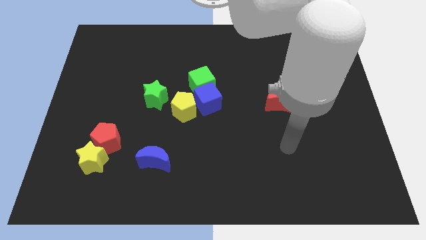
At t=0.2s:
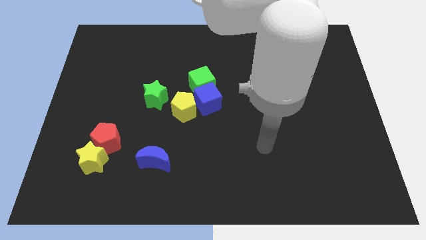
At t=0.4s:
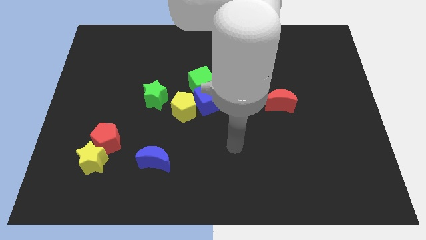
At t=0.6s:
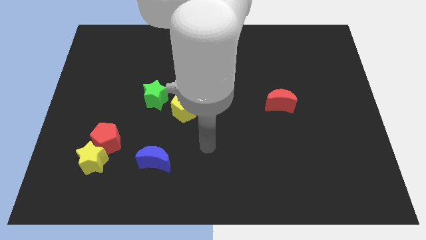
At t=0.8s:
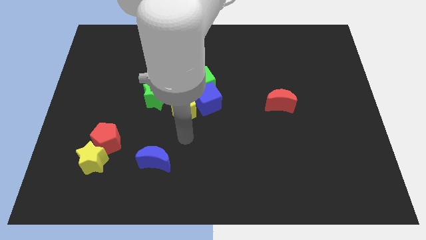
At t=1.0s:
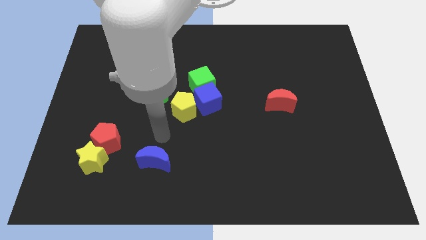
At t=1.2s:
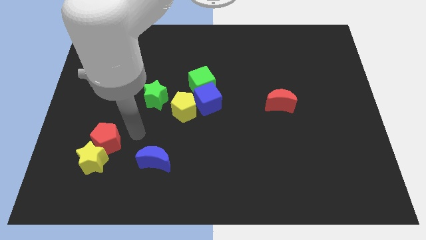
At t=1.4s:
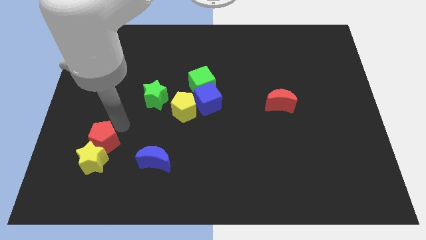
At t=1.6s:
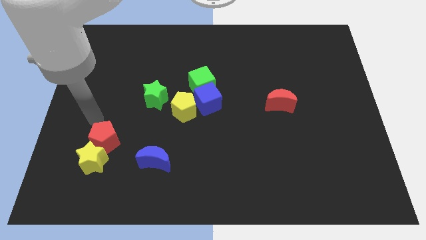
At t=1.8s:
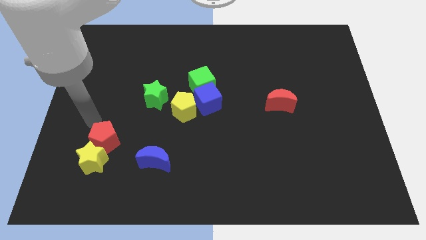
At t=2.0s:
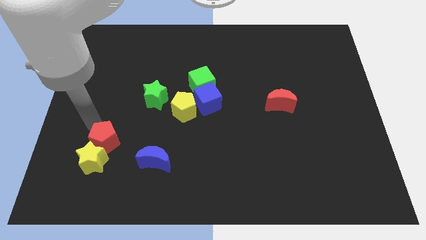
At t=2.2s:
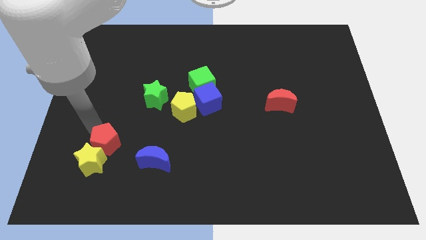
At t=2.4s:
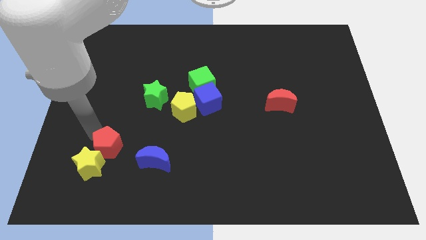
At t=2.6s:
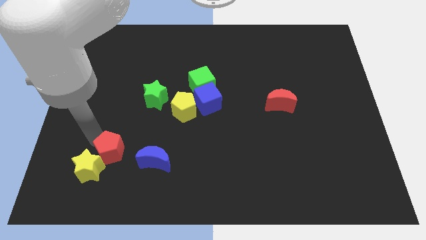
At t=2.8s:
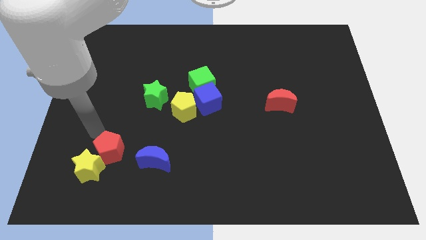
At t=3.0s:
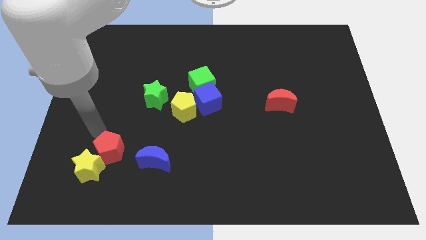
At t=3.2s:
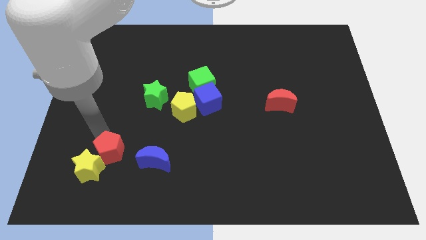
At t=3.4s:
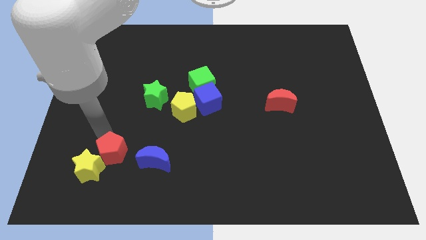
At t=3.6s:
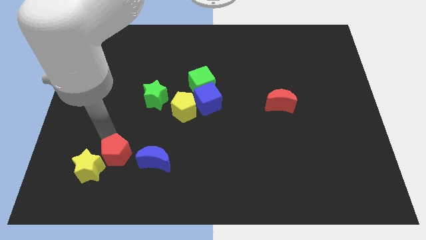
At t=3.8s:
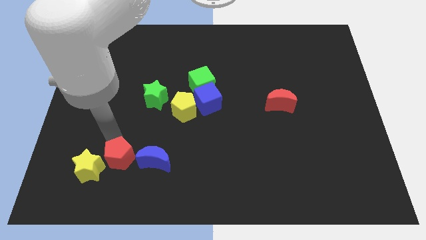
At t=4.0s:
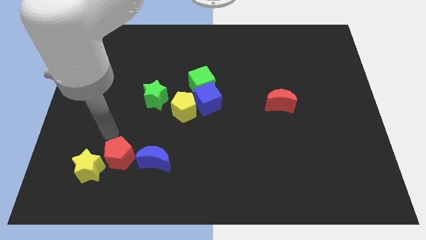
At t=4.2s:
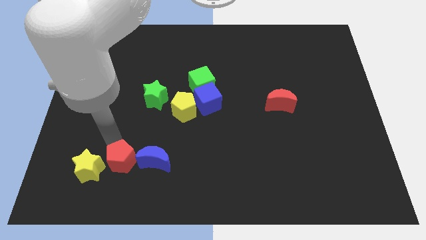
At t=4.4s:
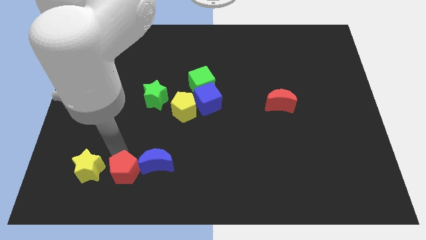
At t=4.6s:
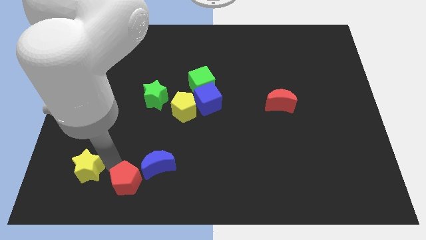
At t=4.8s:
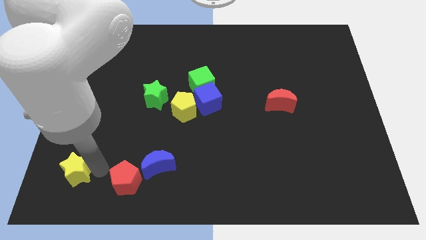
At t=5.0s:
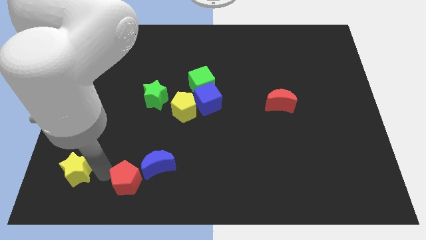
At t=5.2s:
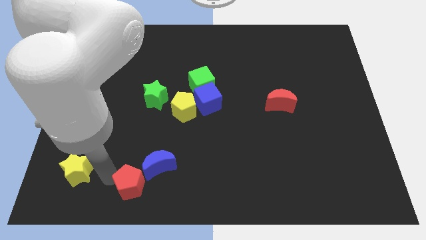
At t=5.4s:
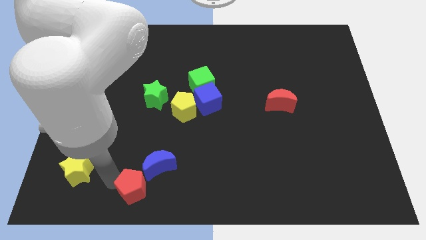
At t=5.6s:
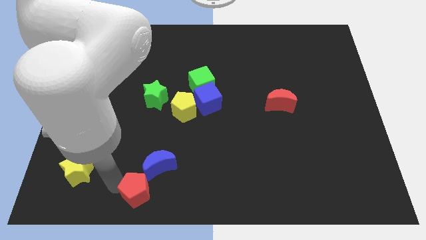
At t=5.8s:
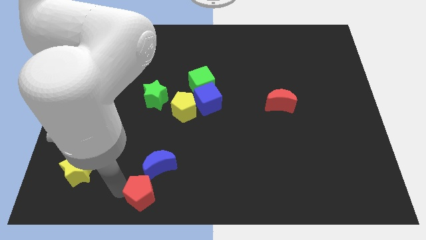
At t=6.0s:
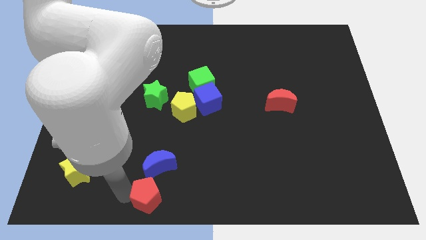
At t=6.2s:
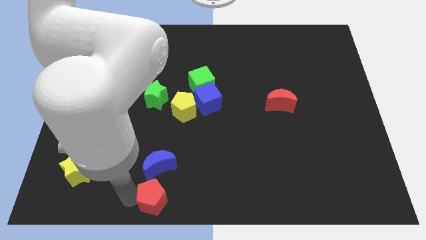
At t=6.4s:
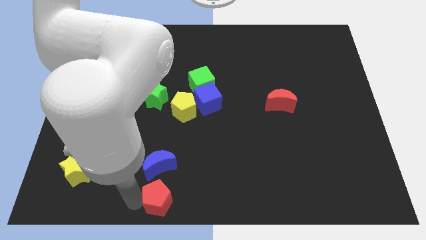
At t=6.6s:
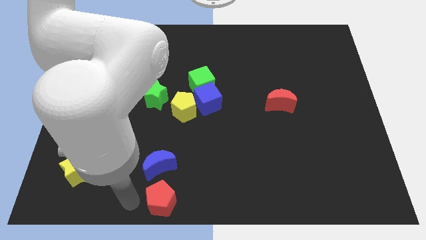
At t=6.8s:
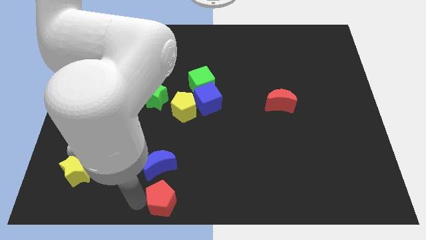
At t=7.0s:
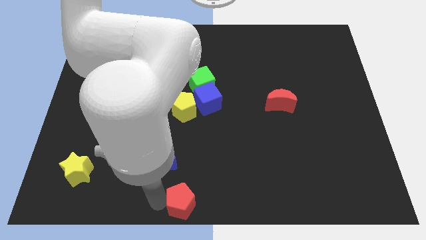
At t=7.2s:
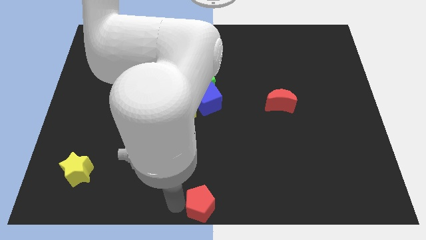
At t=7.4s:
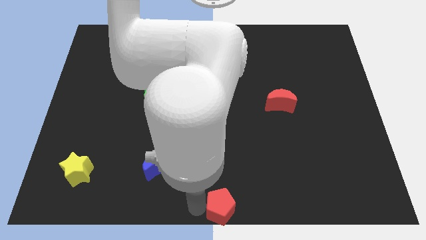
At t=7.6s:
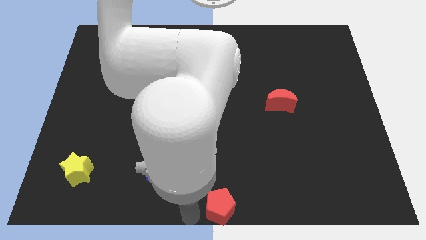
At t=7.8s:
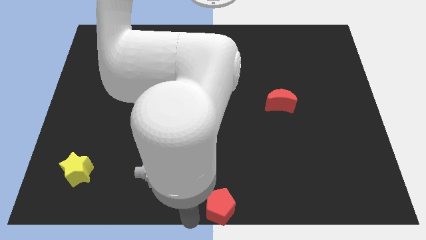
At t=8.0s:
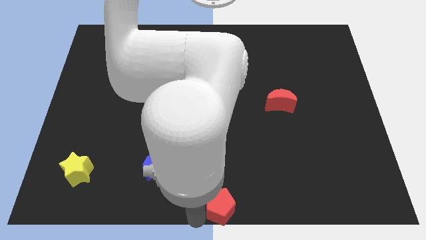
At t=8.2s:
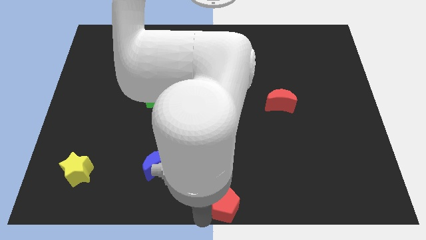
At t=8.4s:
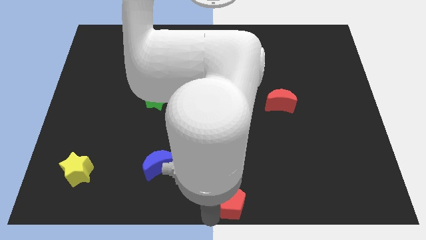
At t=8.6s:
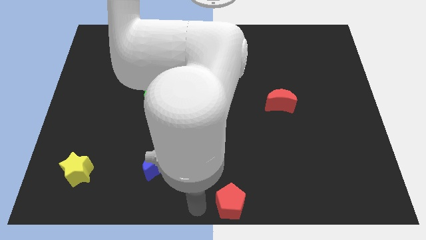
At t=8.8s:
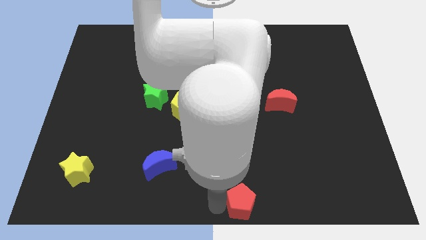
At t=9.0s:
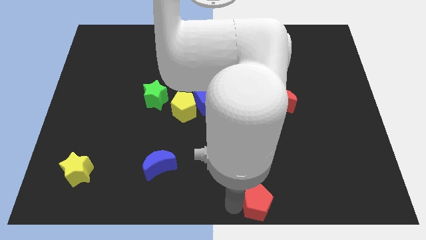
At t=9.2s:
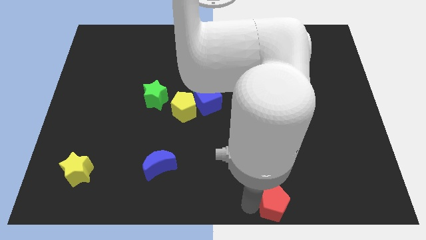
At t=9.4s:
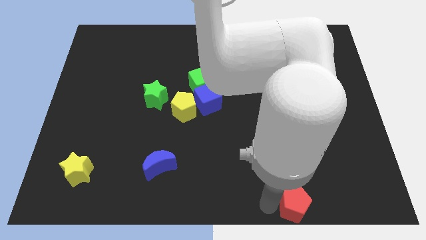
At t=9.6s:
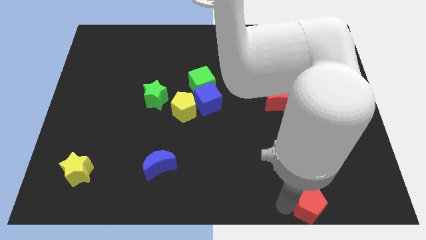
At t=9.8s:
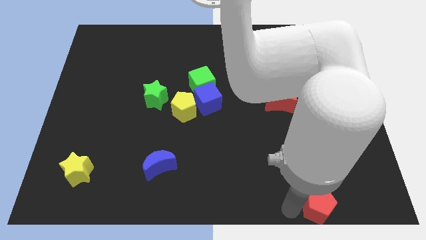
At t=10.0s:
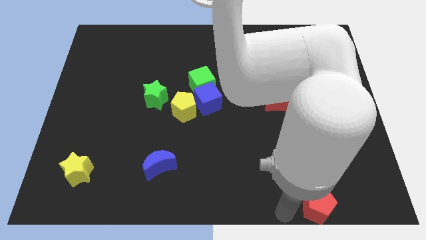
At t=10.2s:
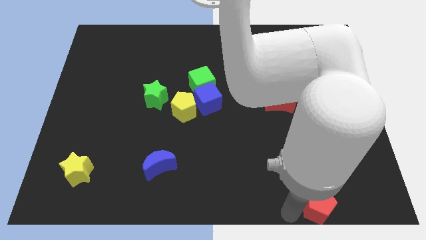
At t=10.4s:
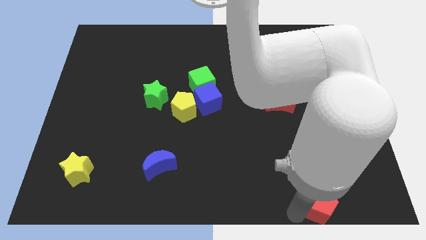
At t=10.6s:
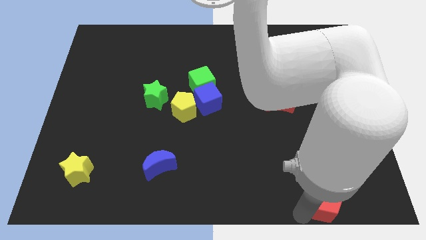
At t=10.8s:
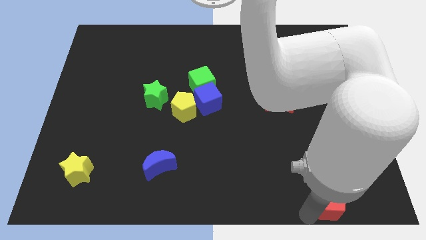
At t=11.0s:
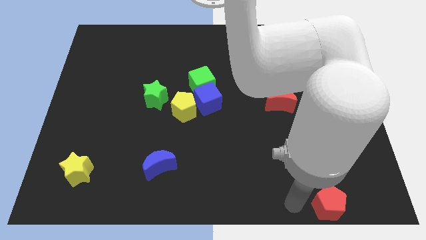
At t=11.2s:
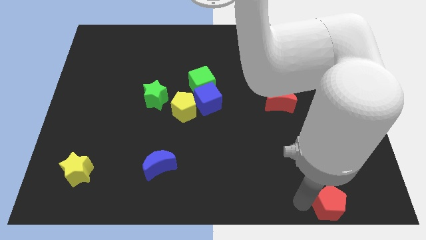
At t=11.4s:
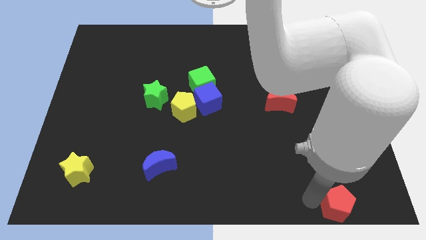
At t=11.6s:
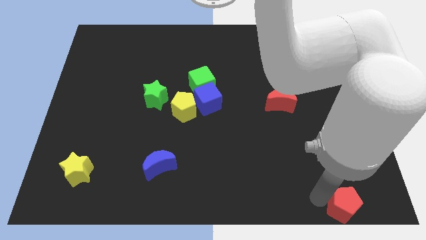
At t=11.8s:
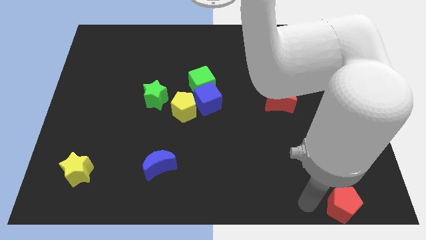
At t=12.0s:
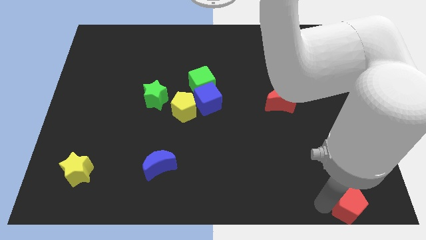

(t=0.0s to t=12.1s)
push the red pentagon to the bottom right
